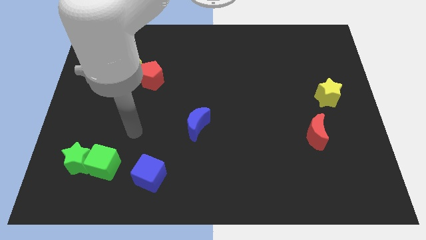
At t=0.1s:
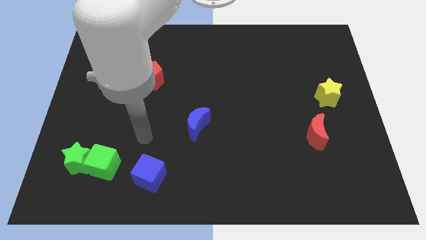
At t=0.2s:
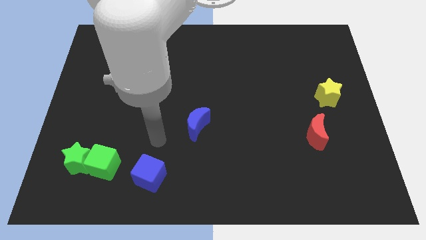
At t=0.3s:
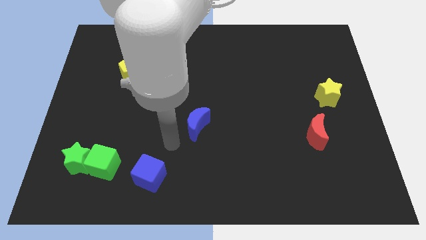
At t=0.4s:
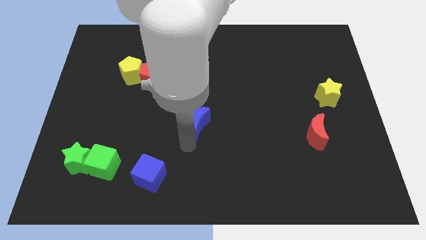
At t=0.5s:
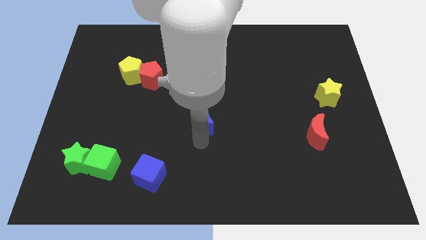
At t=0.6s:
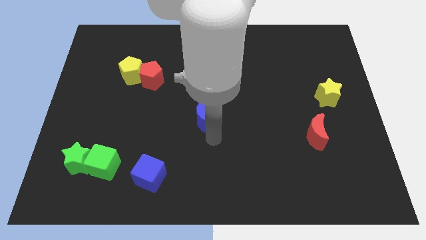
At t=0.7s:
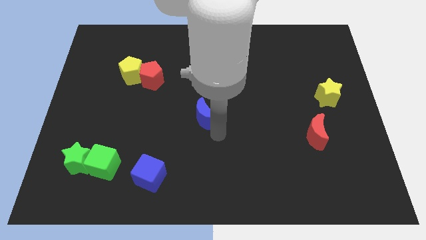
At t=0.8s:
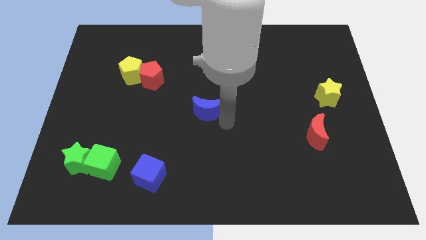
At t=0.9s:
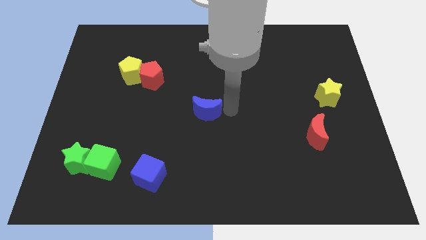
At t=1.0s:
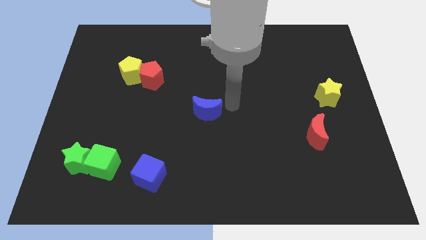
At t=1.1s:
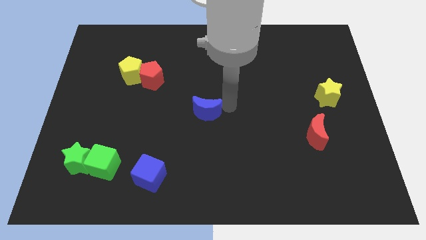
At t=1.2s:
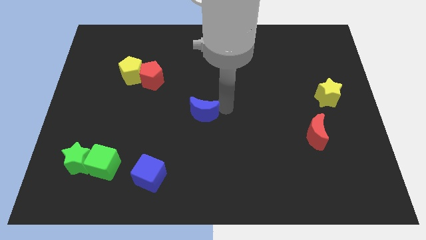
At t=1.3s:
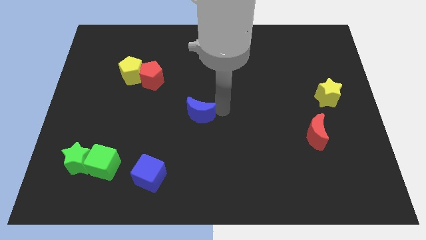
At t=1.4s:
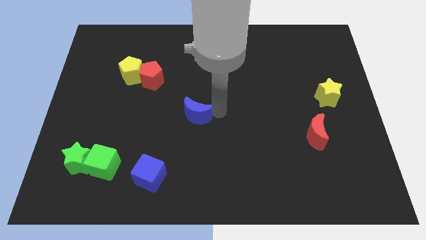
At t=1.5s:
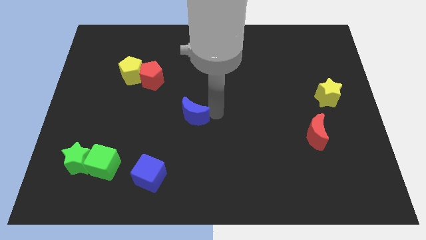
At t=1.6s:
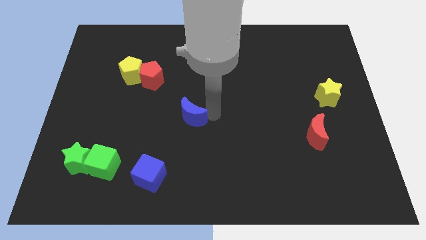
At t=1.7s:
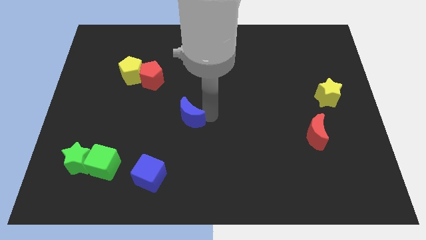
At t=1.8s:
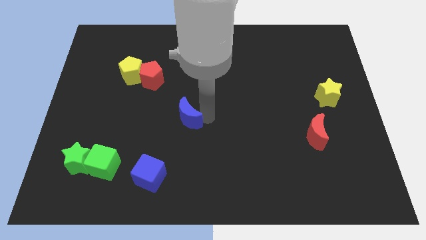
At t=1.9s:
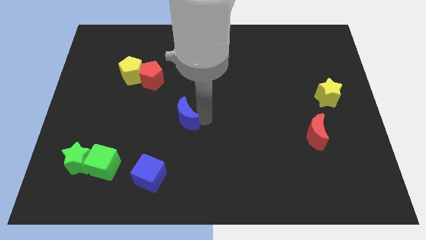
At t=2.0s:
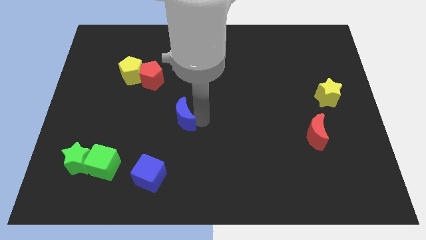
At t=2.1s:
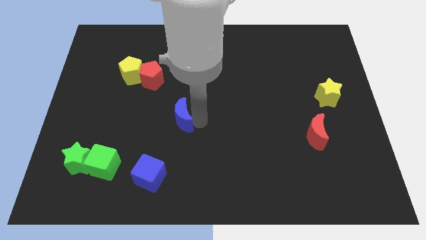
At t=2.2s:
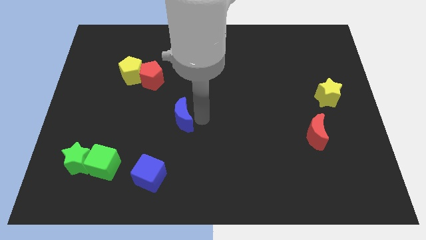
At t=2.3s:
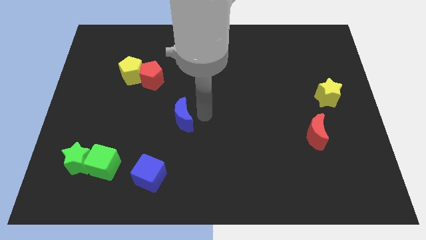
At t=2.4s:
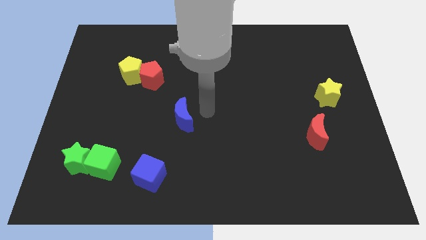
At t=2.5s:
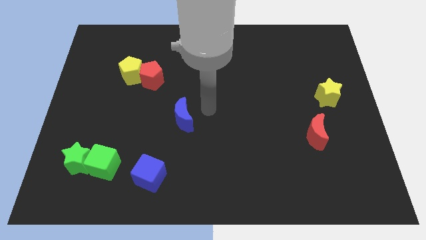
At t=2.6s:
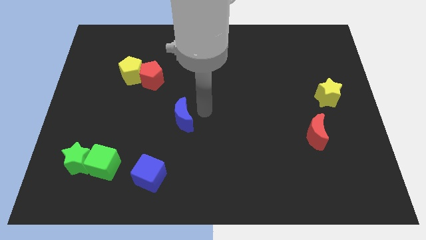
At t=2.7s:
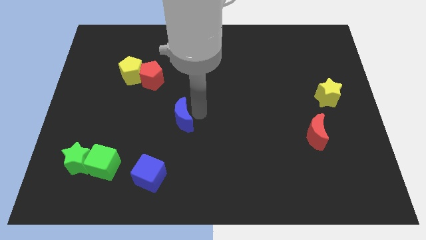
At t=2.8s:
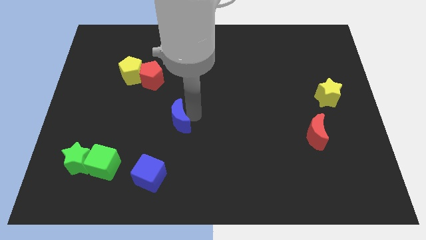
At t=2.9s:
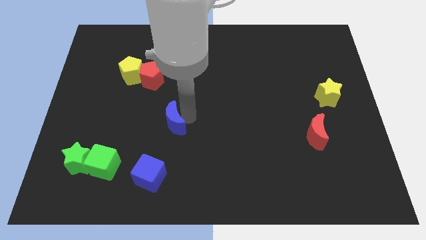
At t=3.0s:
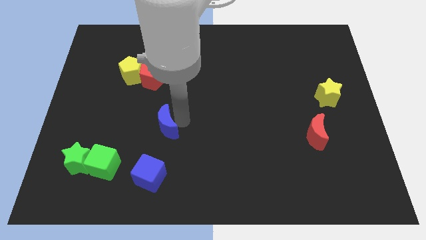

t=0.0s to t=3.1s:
slide the blue moon to the left slightly

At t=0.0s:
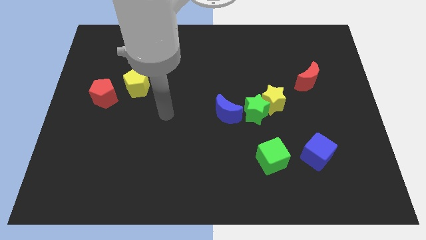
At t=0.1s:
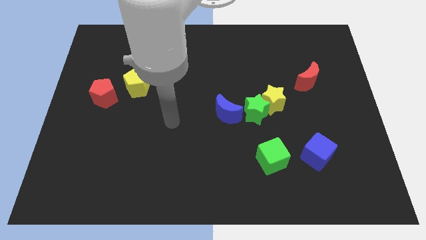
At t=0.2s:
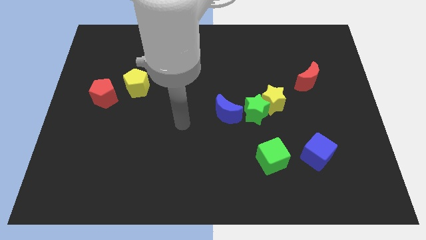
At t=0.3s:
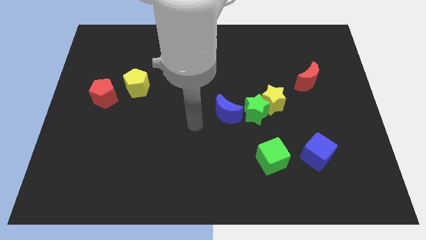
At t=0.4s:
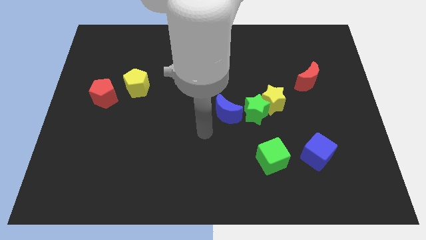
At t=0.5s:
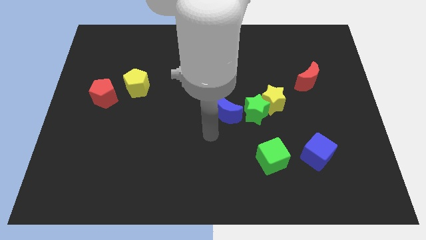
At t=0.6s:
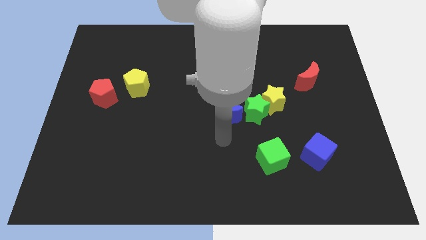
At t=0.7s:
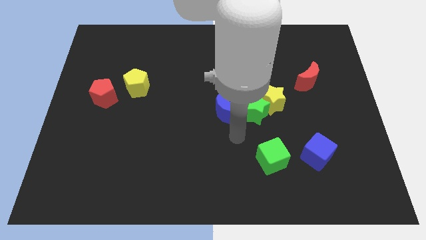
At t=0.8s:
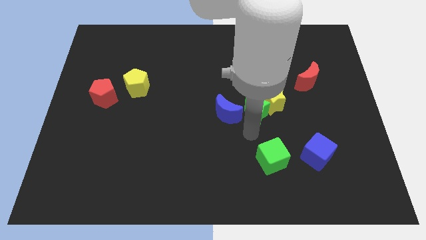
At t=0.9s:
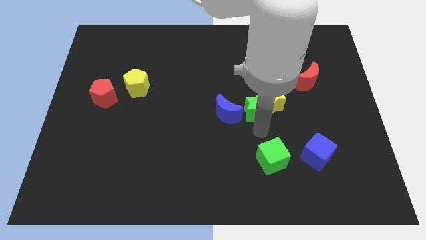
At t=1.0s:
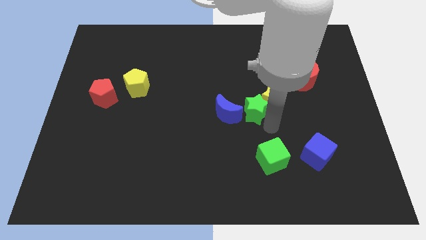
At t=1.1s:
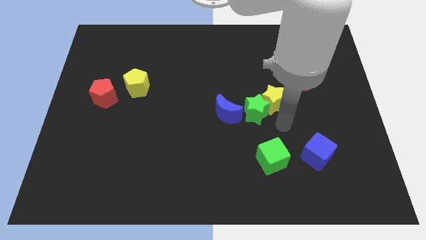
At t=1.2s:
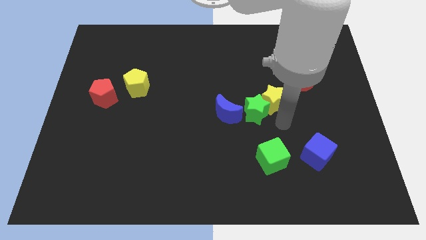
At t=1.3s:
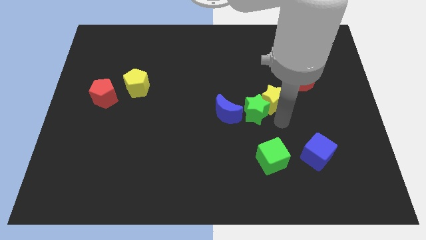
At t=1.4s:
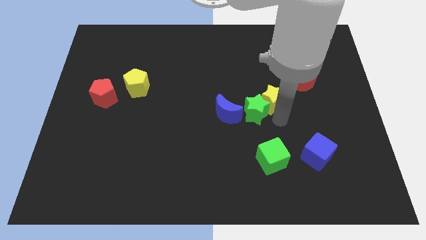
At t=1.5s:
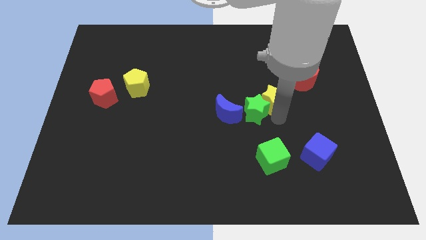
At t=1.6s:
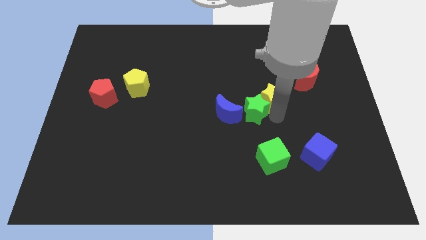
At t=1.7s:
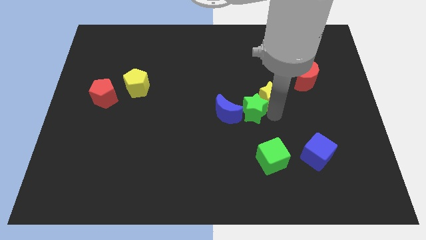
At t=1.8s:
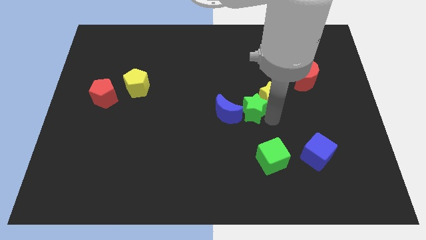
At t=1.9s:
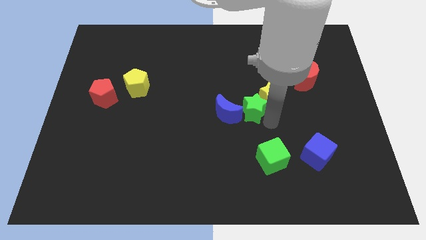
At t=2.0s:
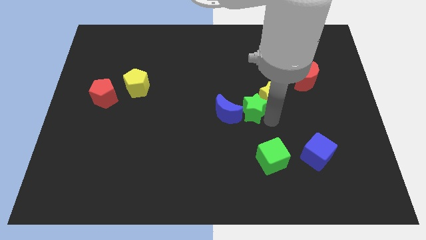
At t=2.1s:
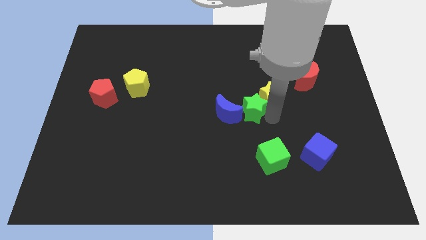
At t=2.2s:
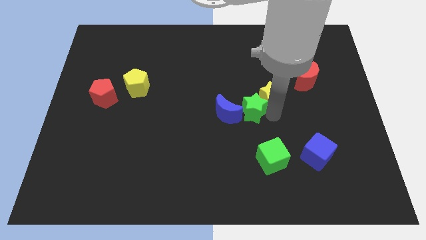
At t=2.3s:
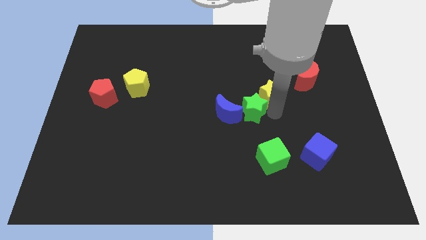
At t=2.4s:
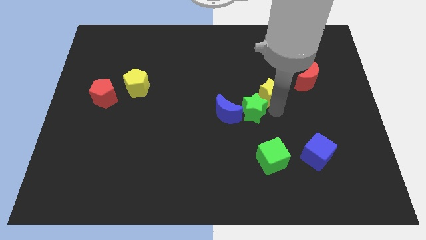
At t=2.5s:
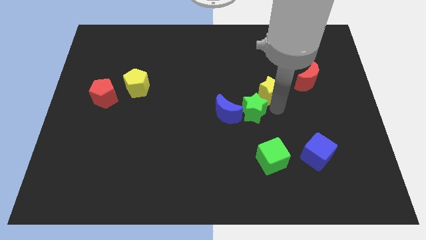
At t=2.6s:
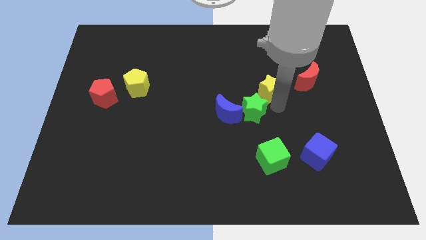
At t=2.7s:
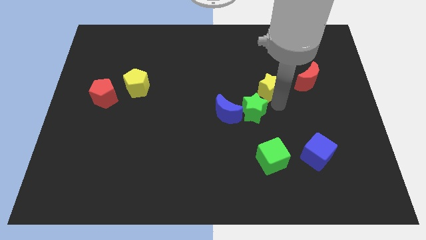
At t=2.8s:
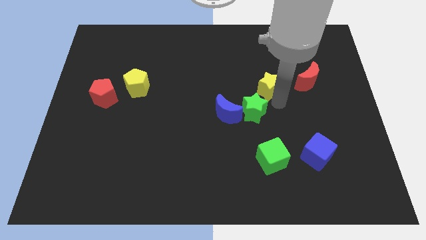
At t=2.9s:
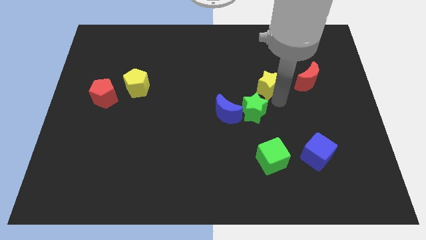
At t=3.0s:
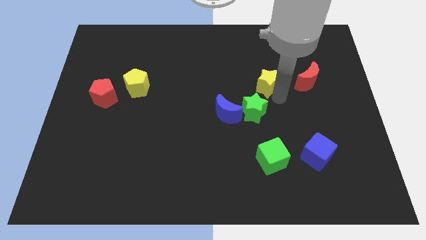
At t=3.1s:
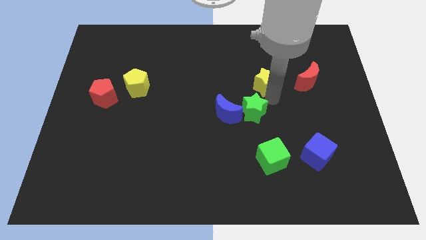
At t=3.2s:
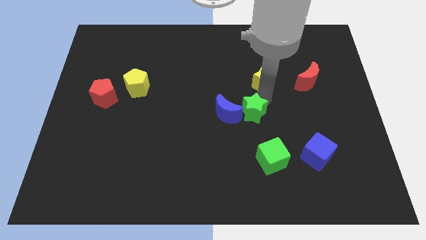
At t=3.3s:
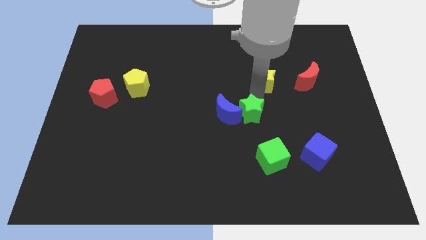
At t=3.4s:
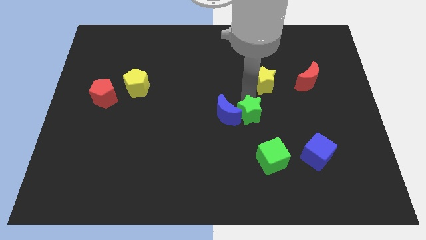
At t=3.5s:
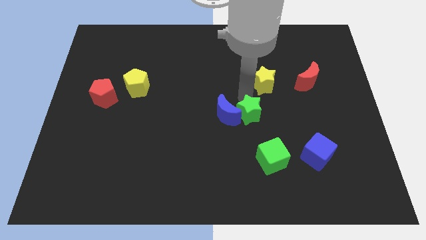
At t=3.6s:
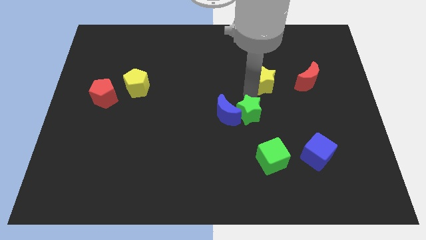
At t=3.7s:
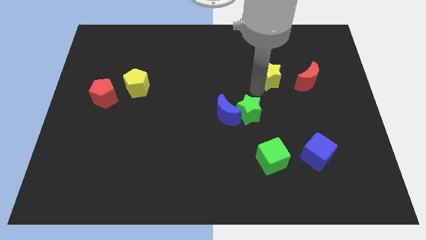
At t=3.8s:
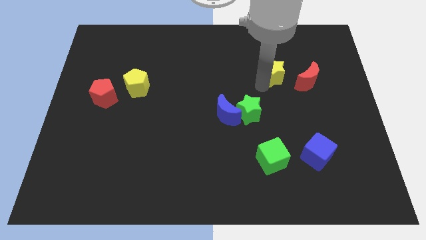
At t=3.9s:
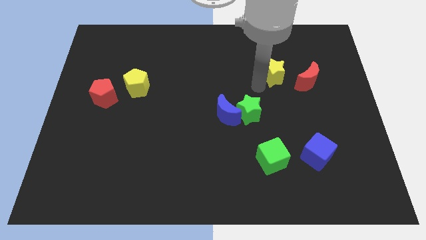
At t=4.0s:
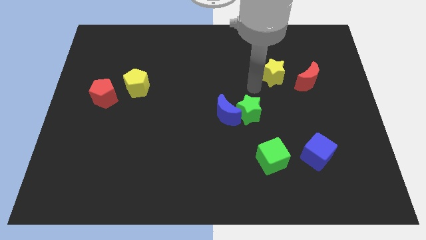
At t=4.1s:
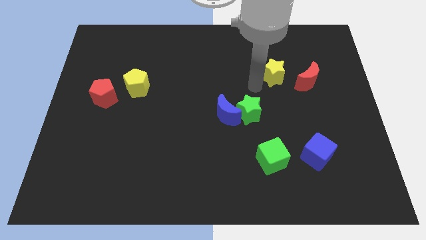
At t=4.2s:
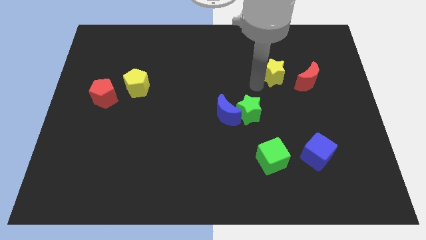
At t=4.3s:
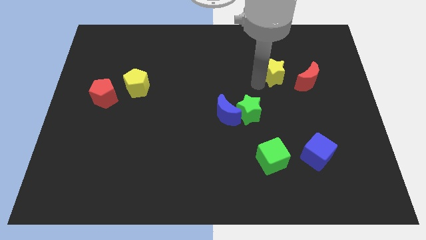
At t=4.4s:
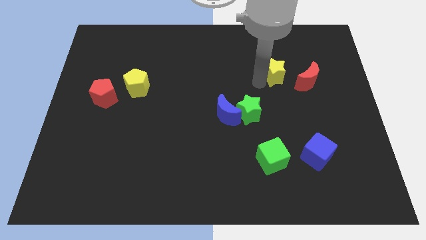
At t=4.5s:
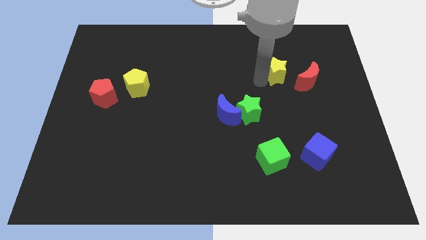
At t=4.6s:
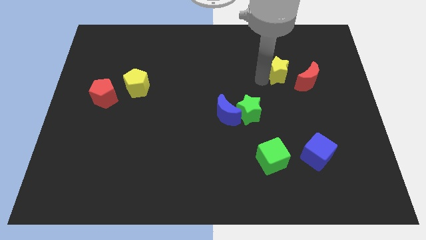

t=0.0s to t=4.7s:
move the yellow star upwards and right somewhat

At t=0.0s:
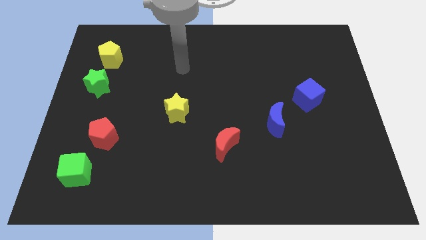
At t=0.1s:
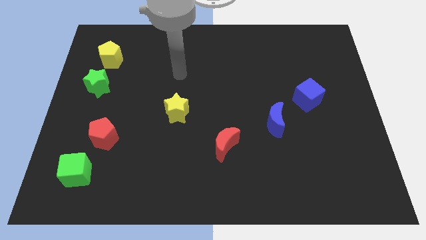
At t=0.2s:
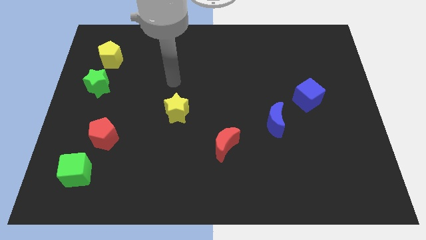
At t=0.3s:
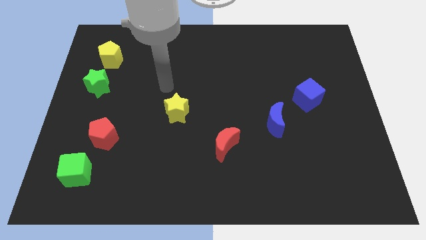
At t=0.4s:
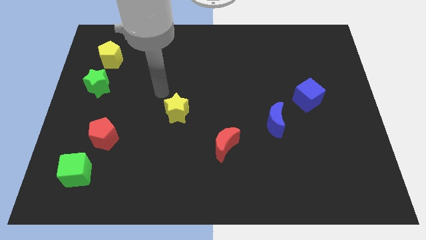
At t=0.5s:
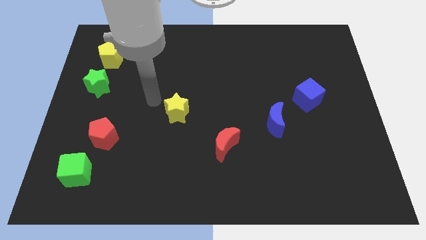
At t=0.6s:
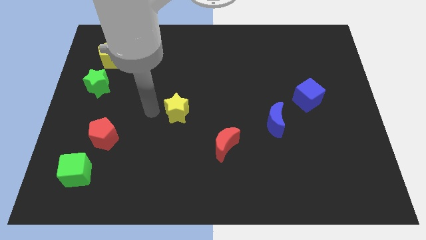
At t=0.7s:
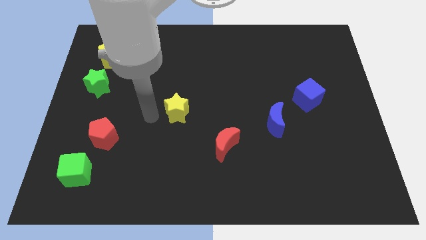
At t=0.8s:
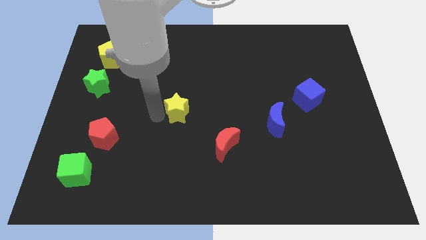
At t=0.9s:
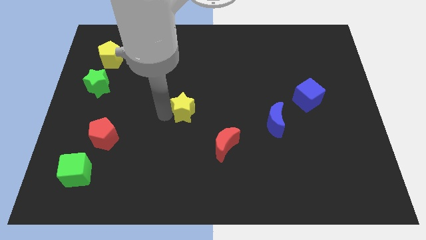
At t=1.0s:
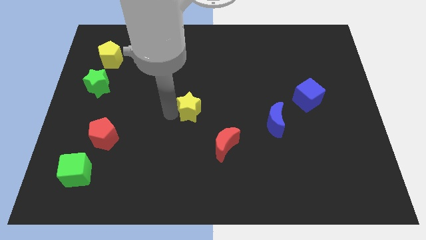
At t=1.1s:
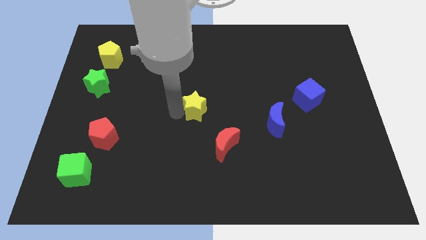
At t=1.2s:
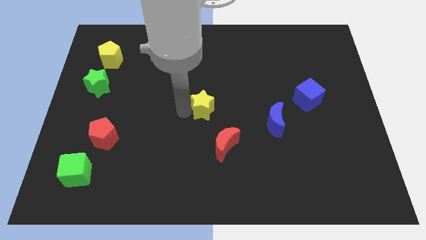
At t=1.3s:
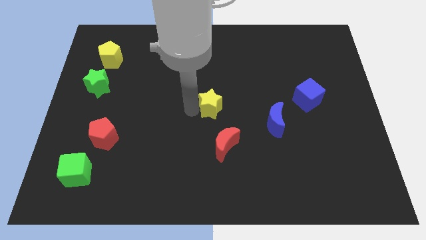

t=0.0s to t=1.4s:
push the yellow star to the right a little
